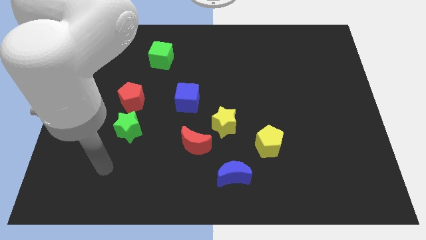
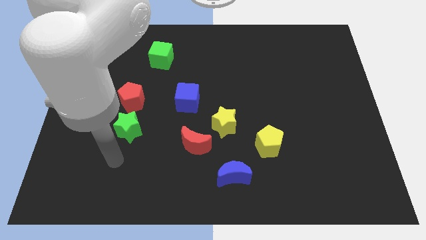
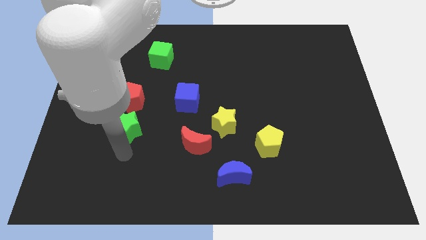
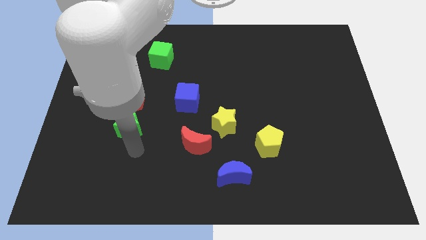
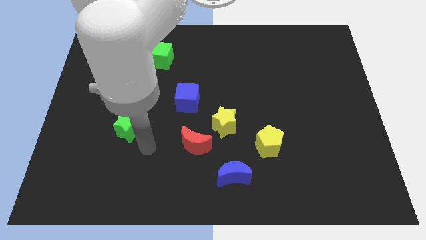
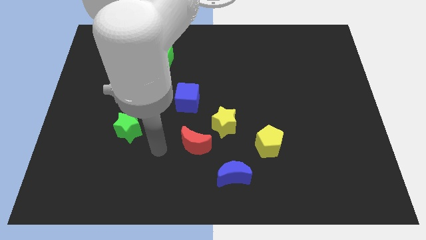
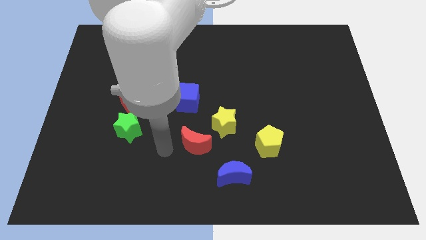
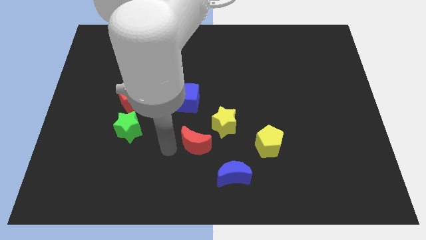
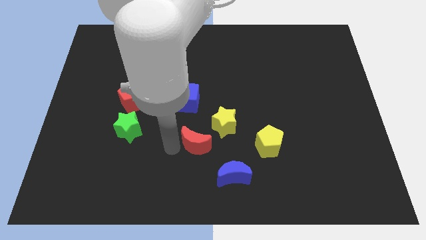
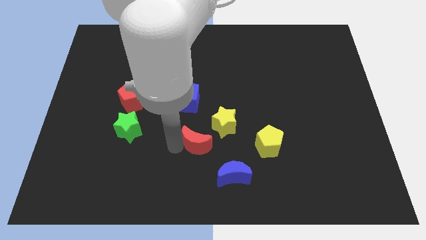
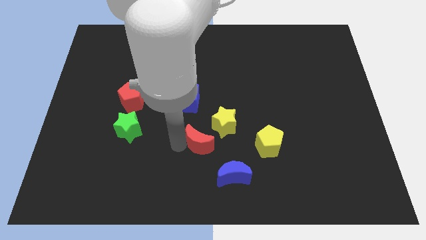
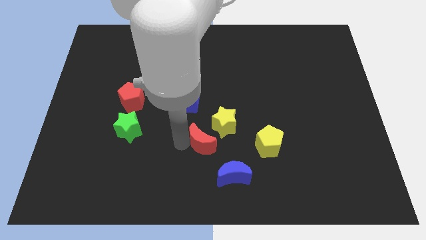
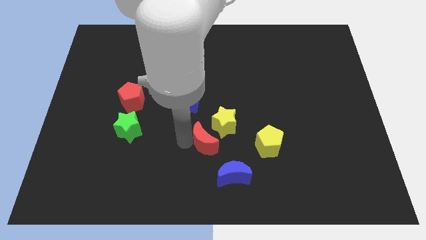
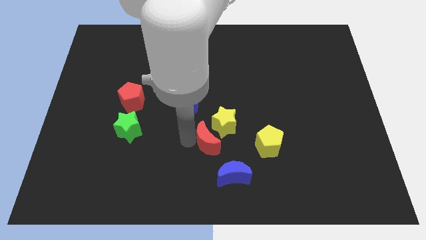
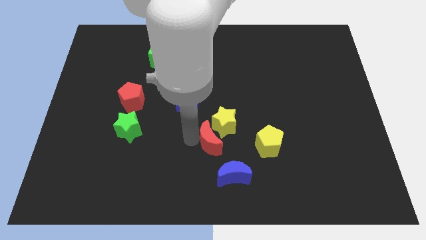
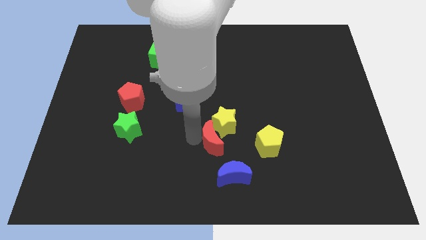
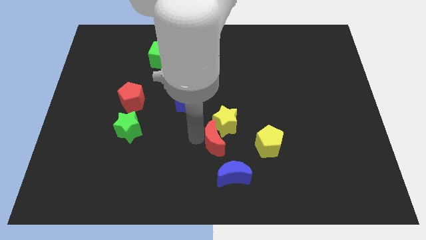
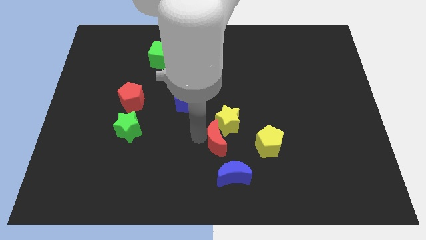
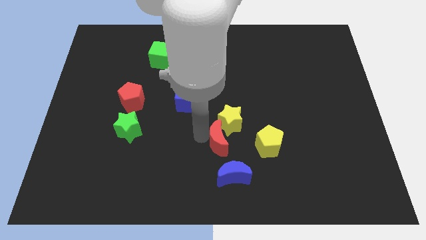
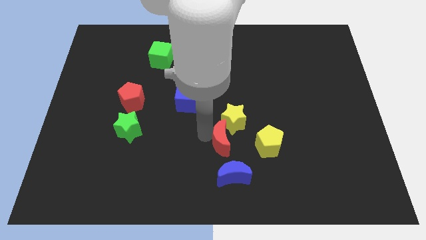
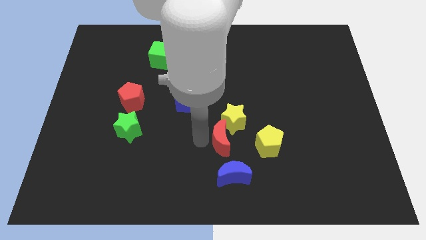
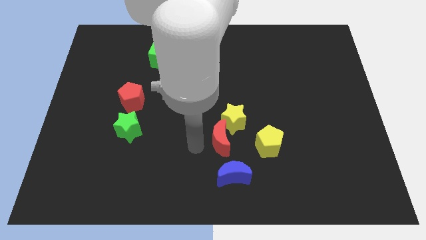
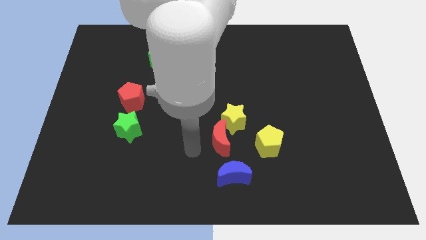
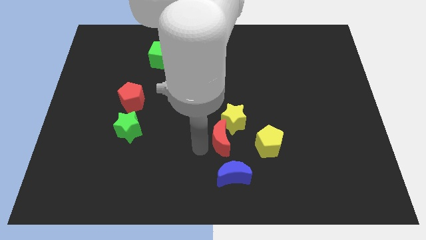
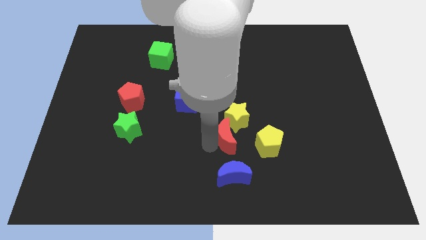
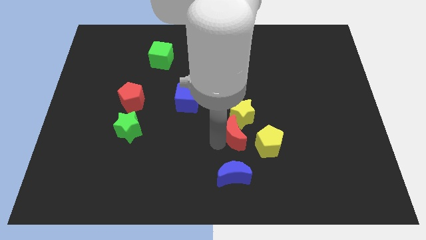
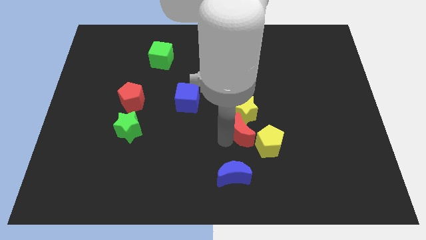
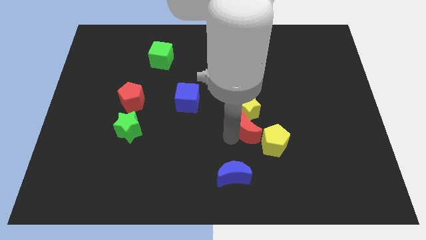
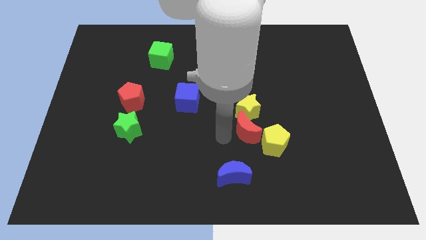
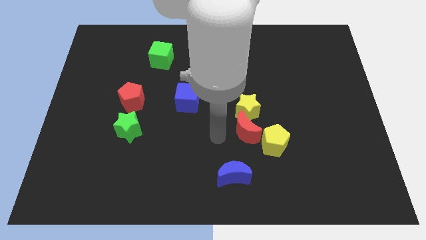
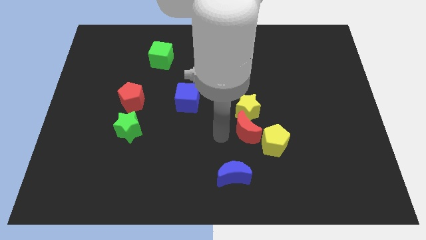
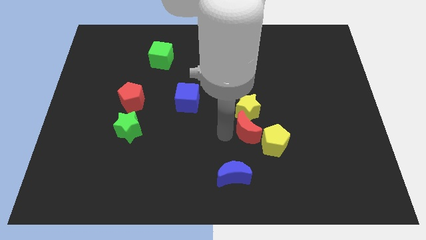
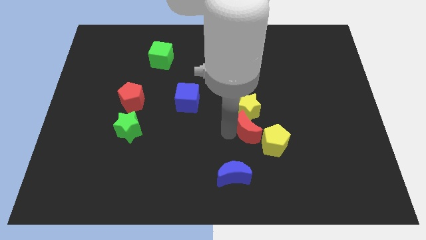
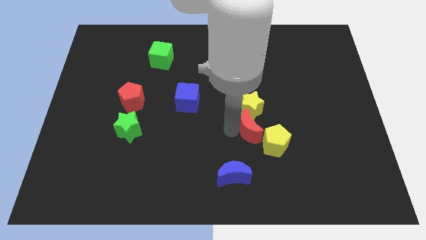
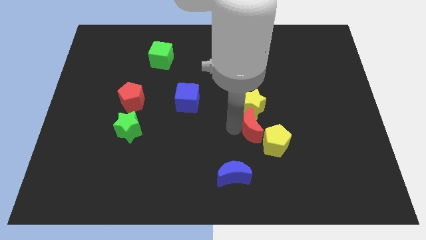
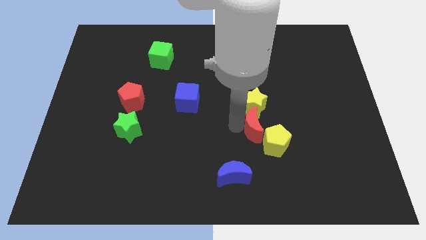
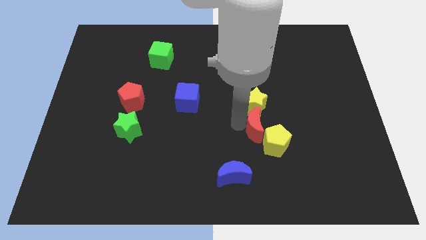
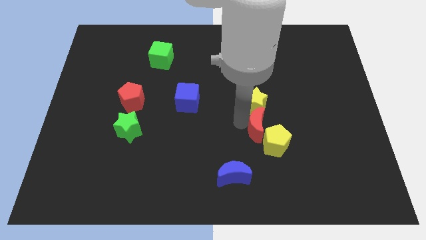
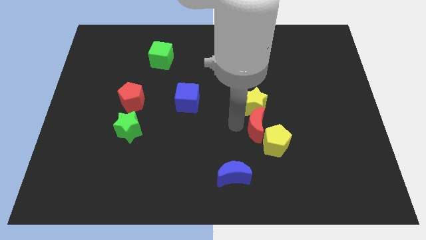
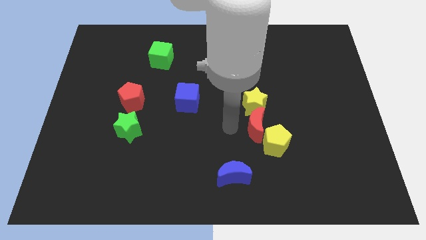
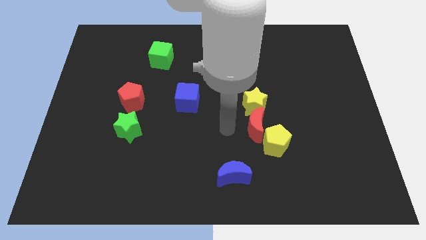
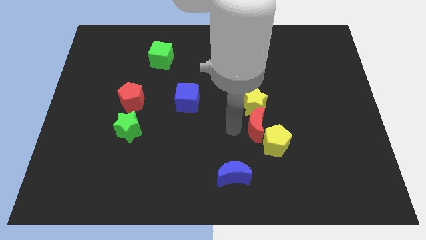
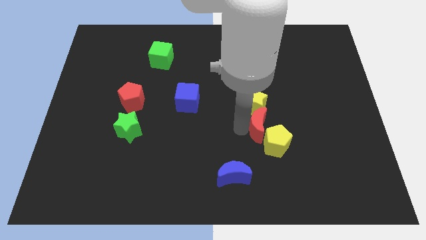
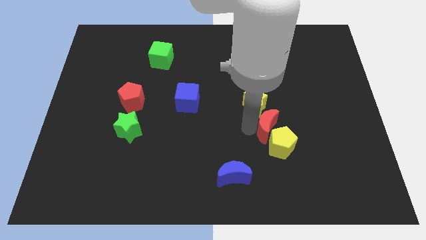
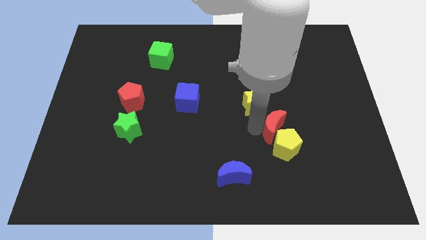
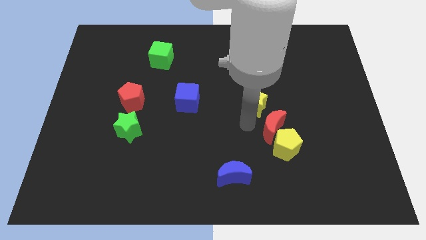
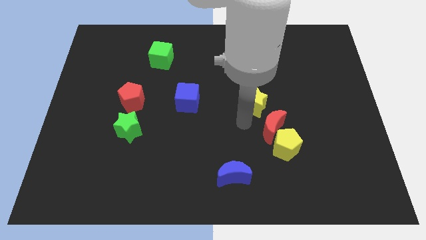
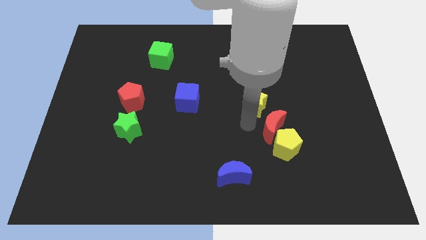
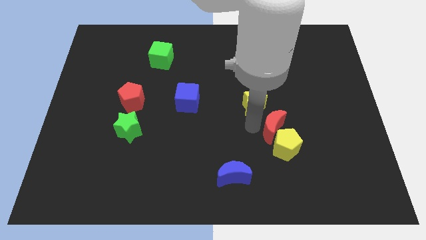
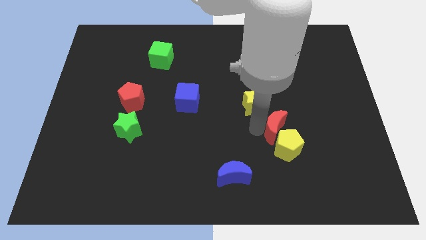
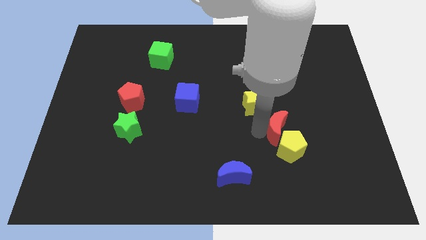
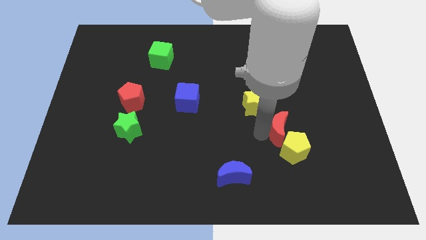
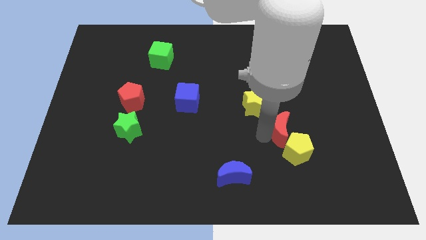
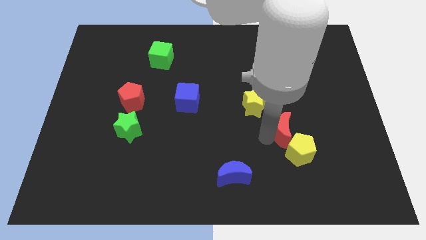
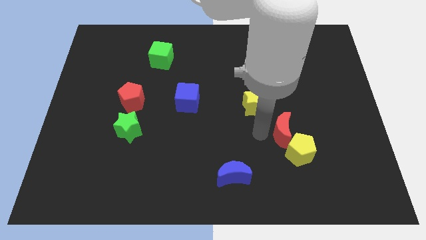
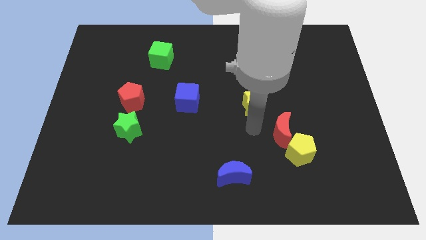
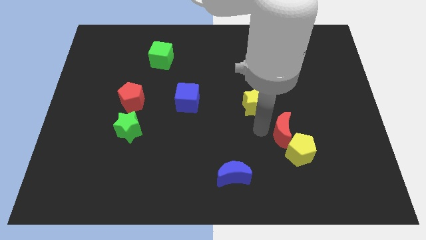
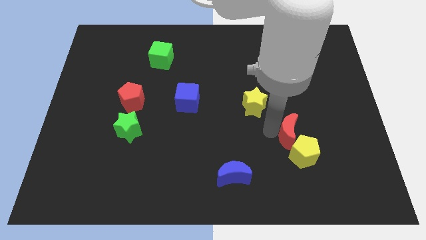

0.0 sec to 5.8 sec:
push the red moon to the right

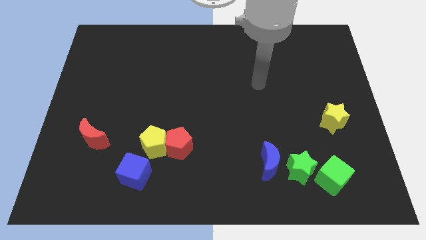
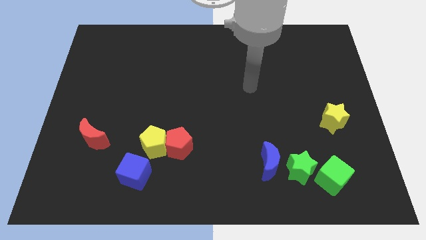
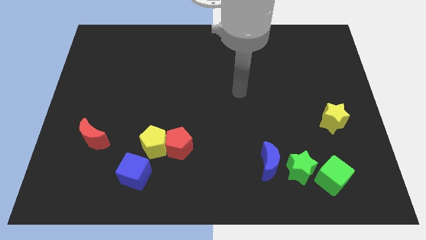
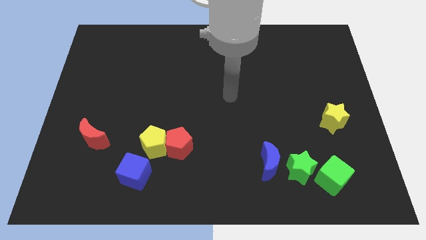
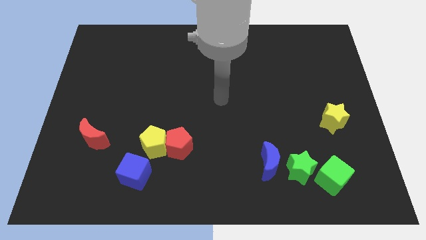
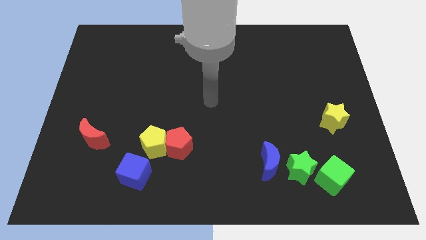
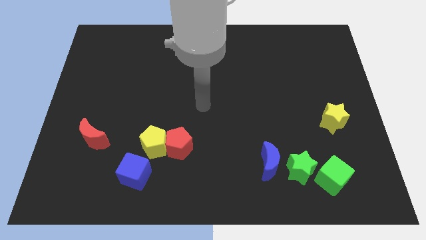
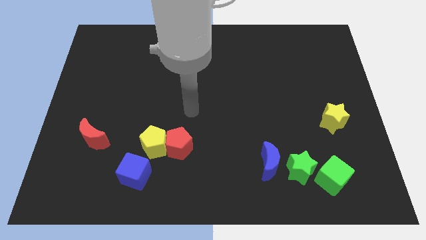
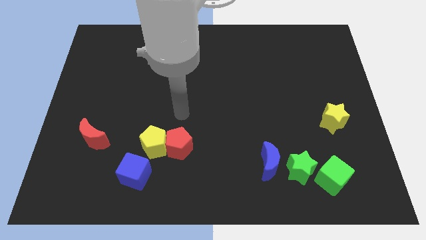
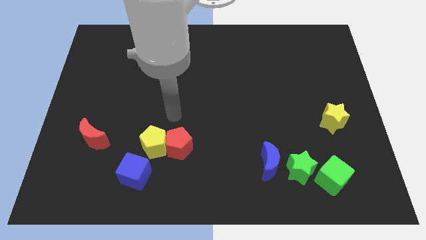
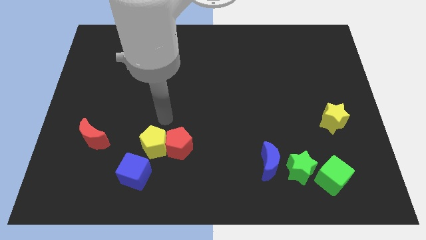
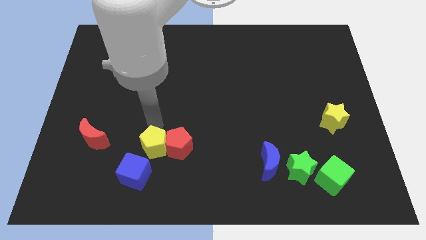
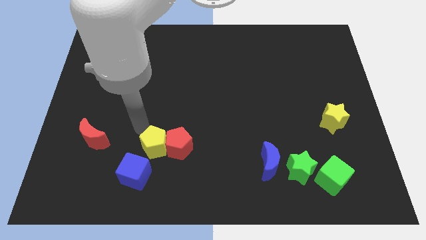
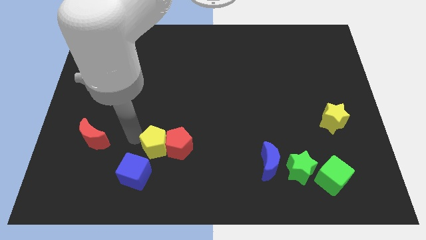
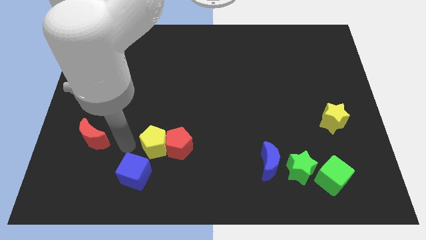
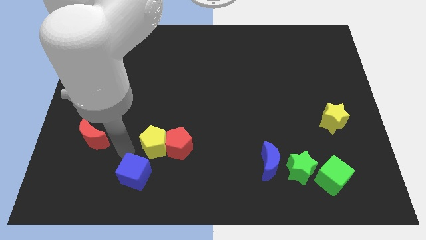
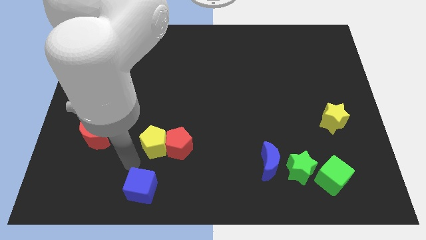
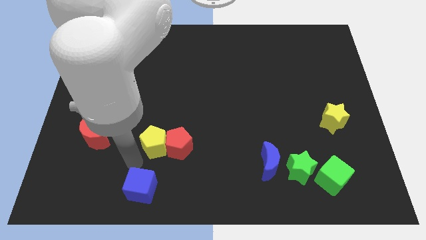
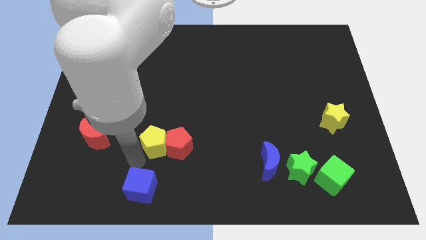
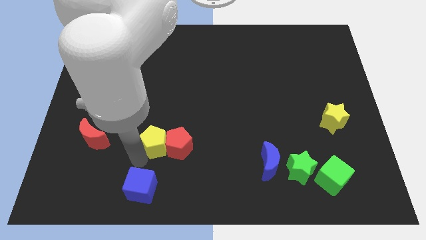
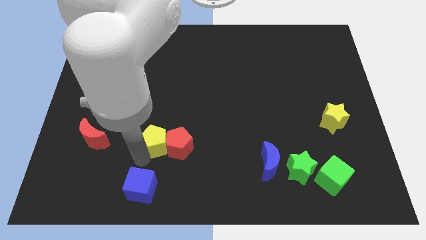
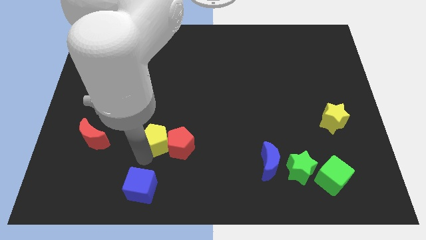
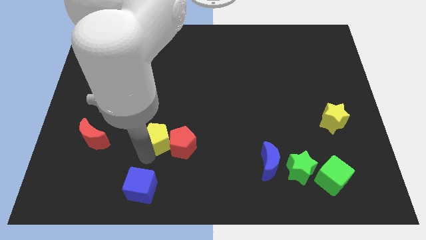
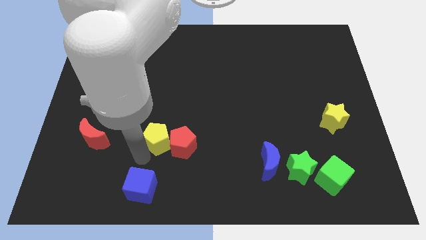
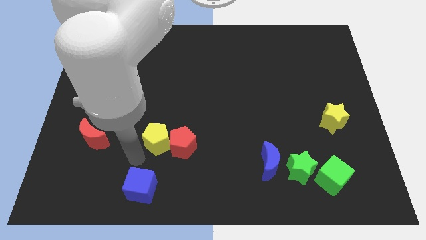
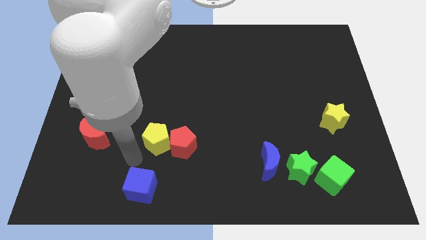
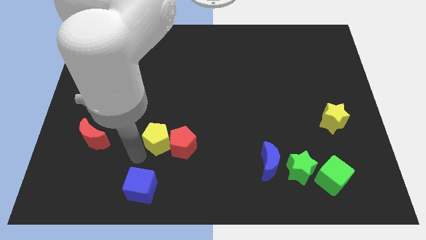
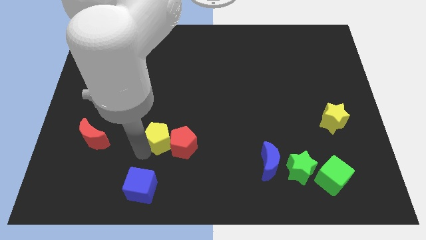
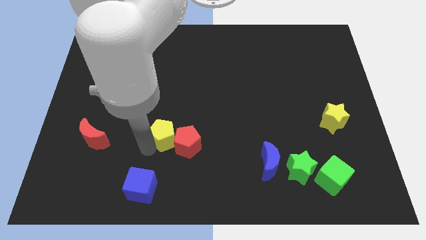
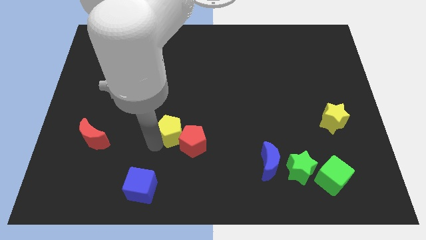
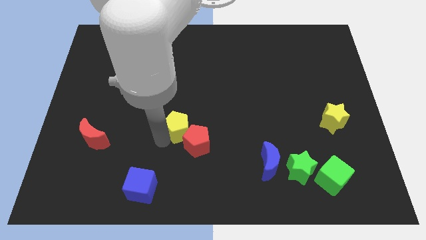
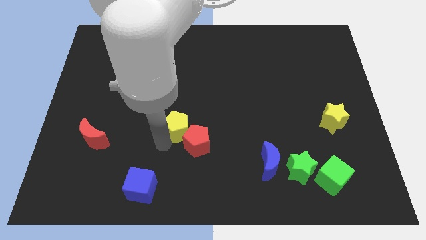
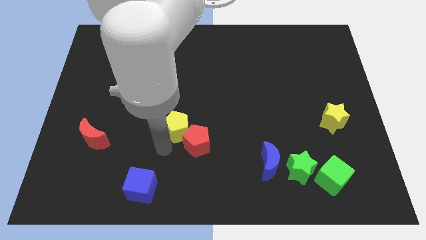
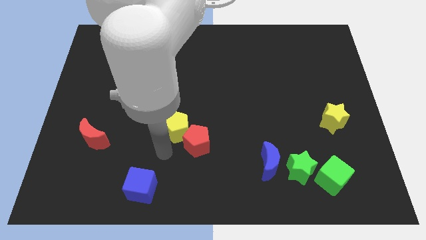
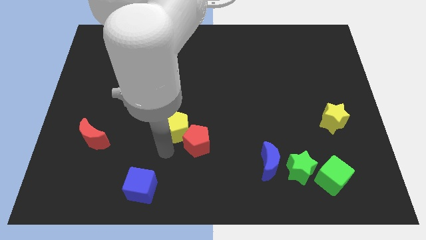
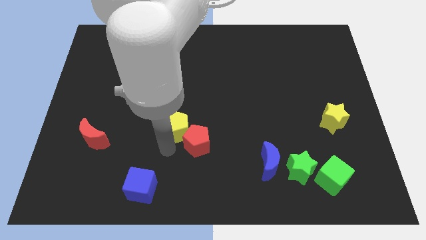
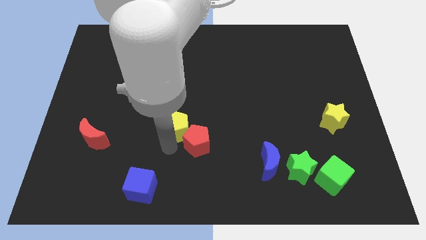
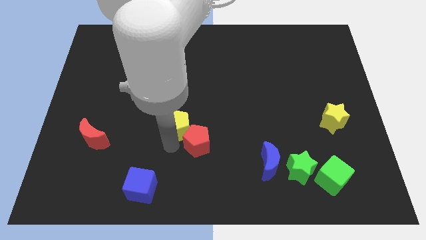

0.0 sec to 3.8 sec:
push the yellow pentagon somewhat diagonally up and right
